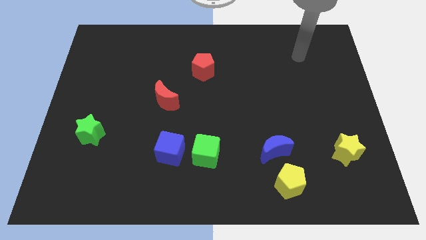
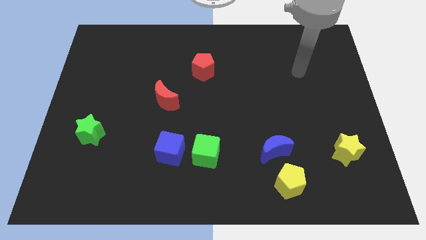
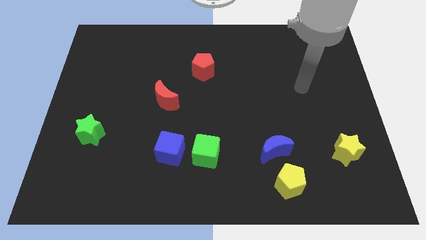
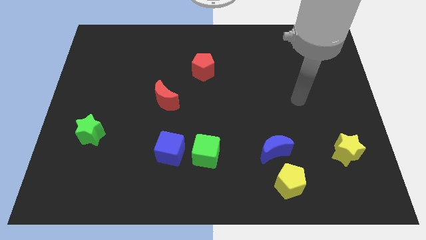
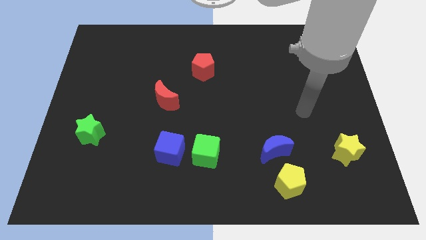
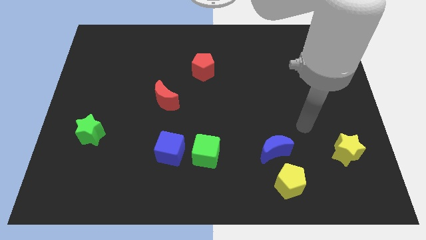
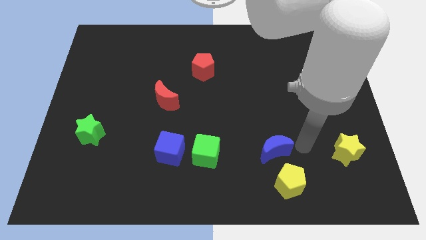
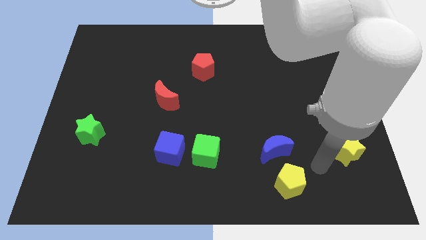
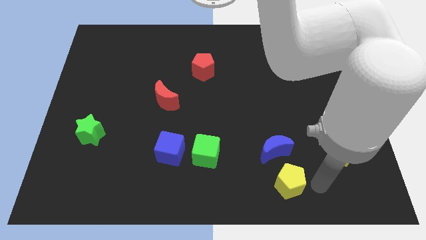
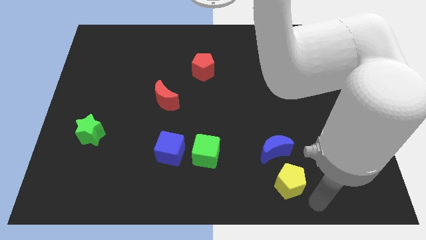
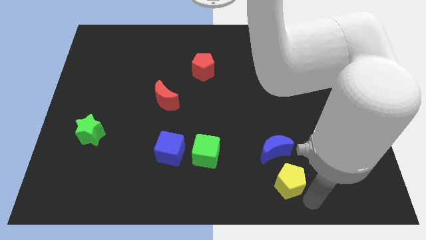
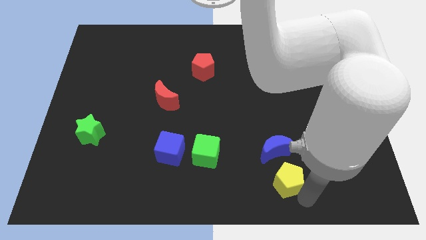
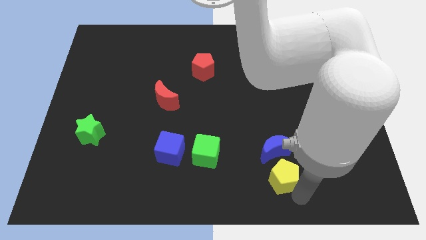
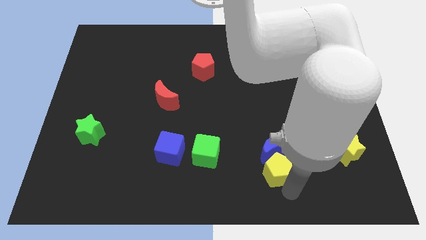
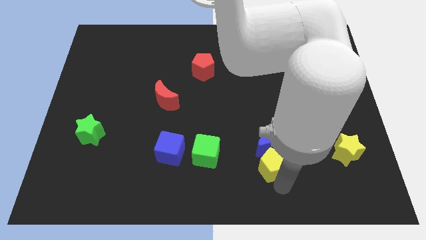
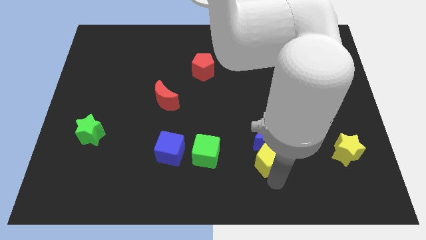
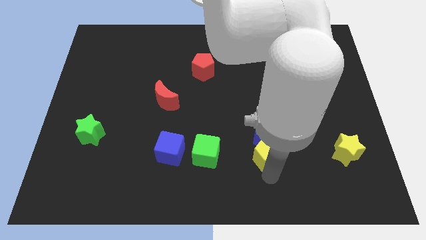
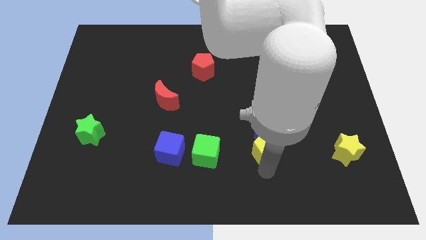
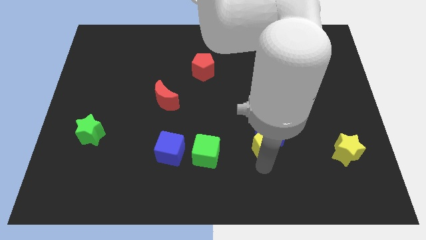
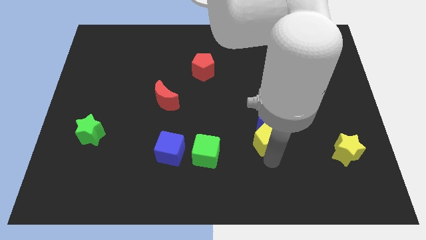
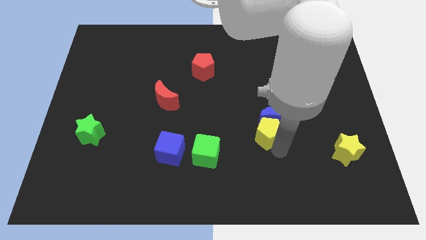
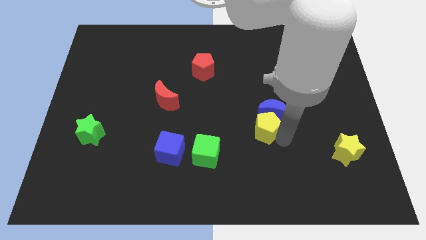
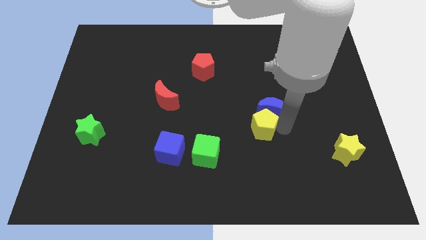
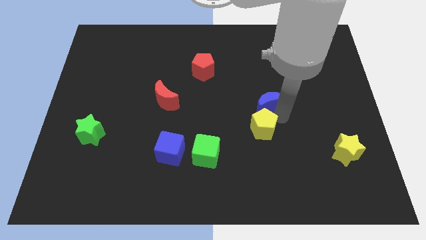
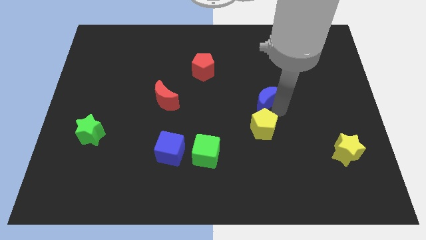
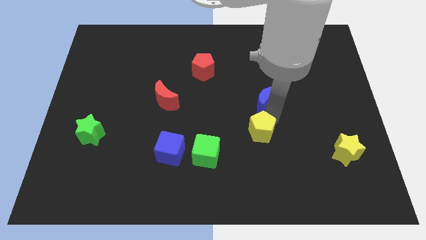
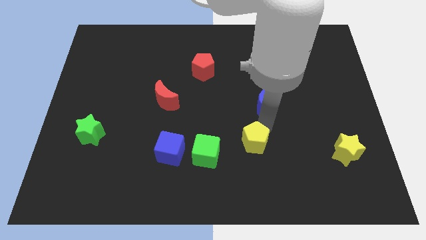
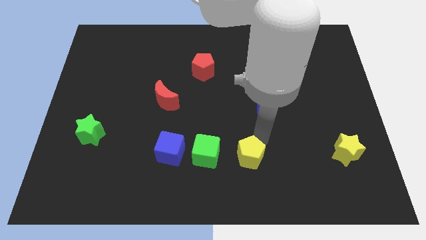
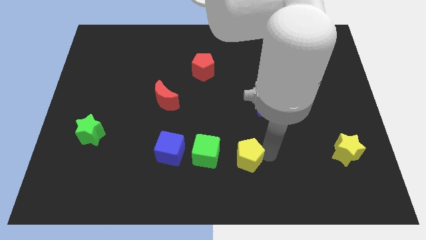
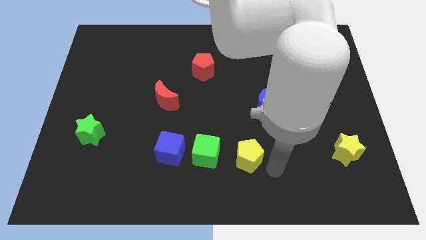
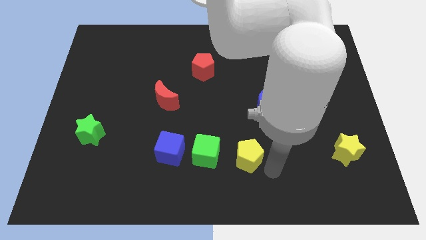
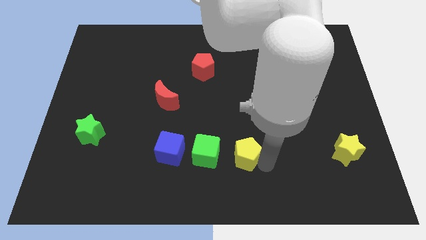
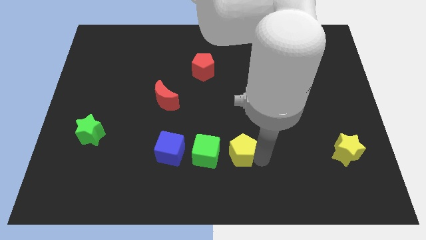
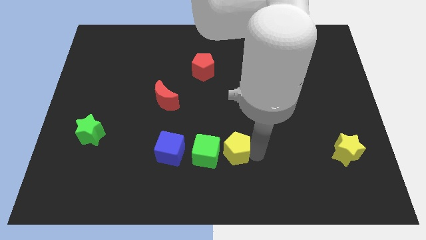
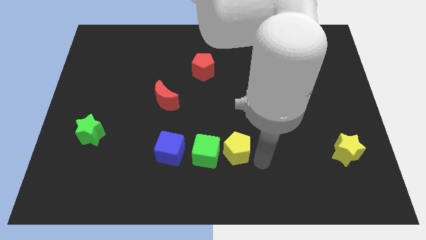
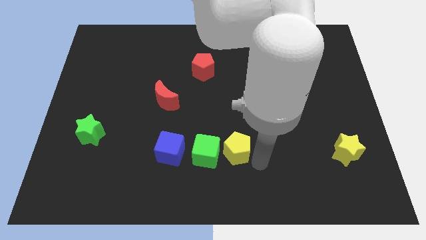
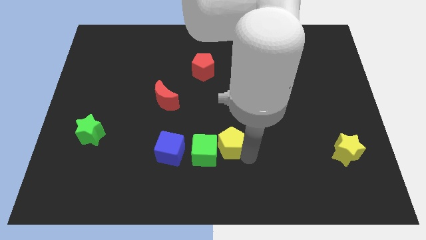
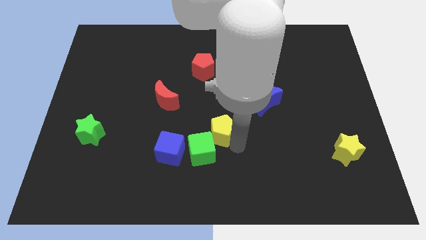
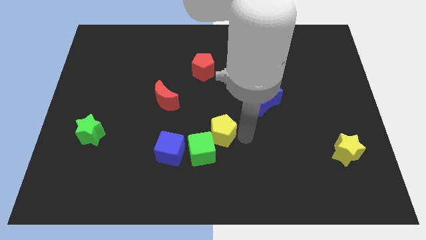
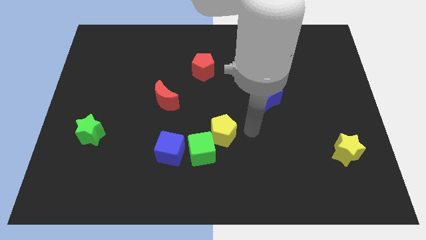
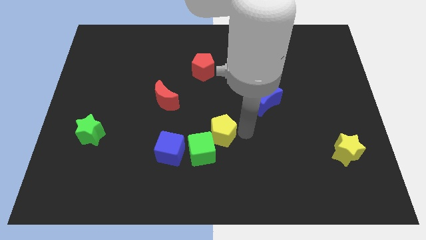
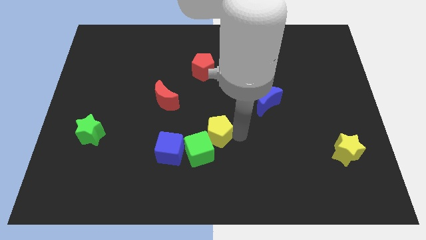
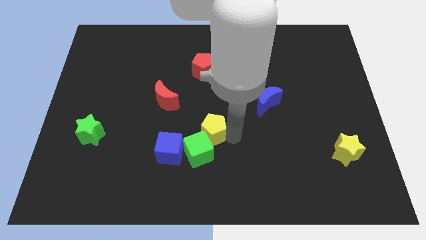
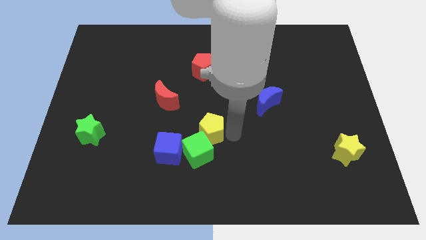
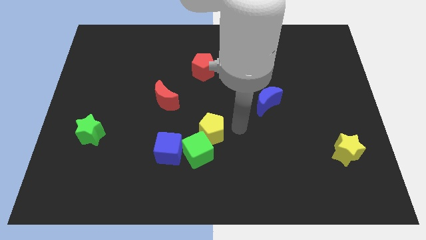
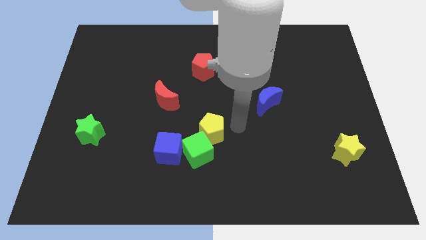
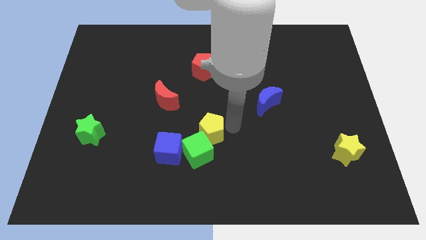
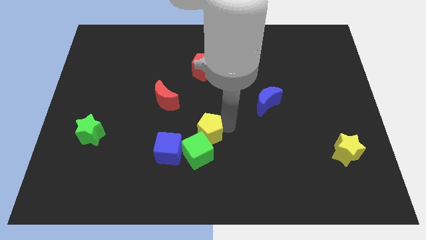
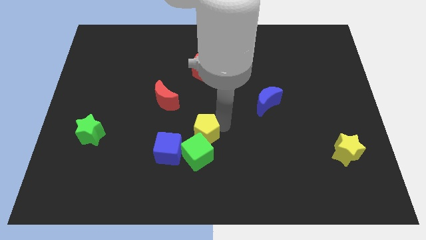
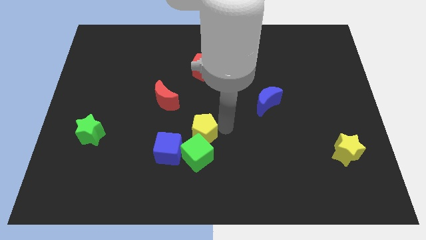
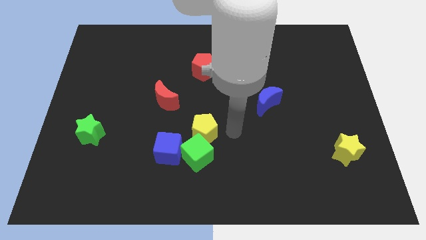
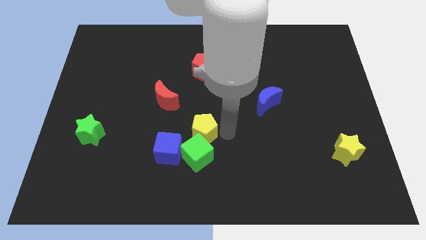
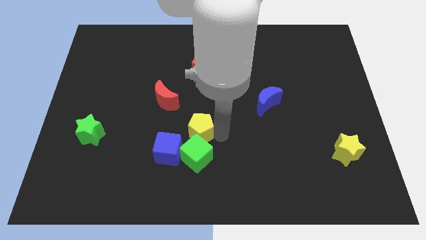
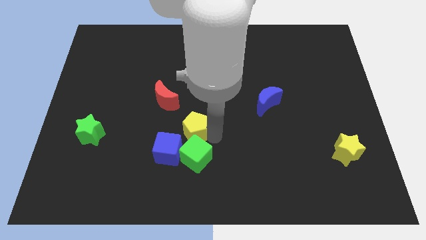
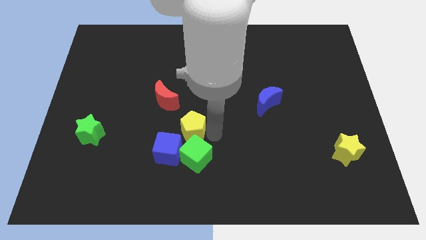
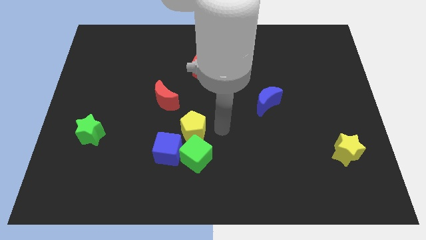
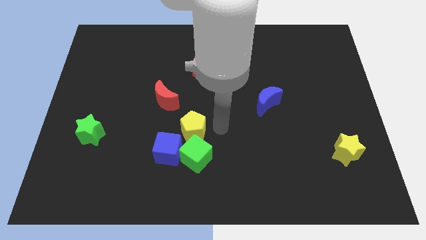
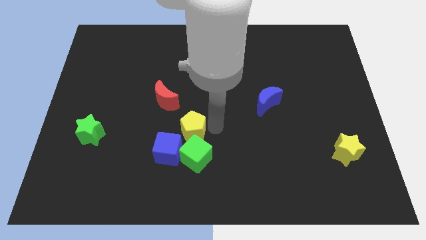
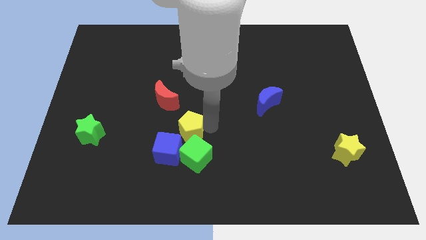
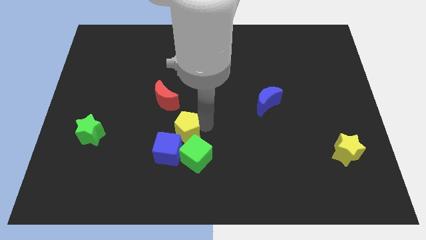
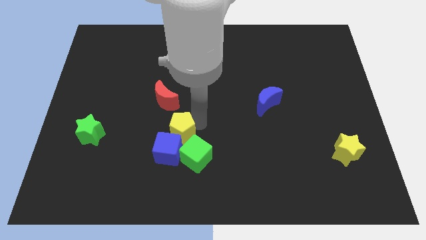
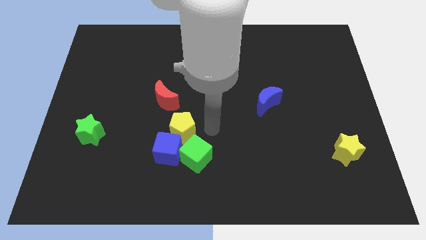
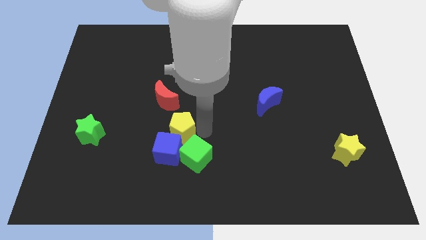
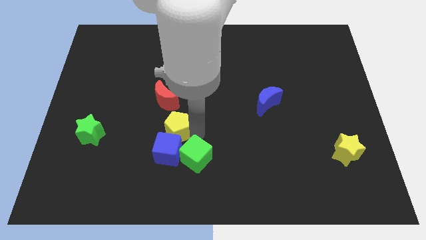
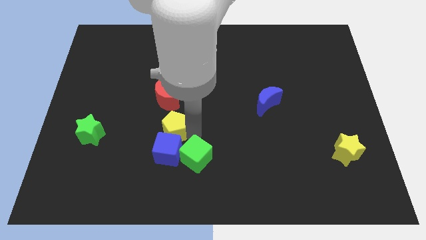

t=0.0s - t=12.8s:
move the yellow pentagon to the top left of the blue cube
